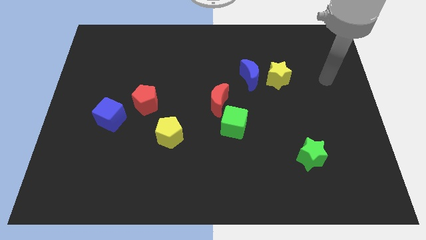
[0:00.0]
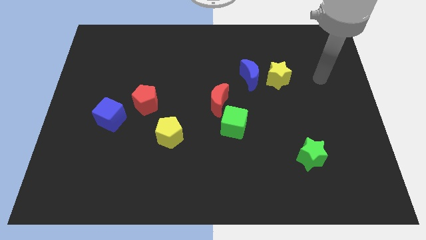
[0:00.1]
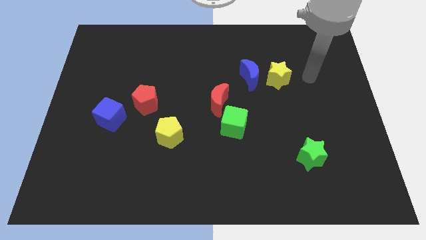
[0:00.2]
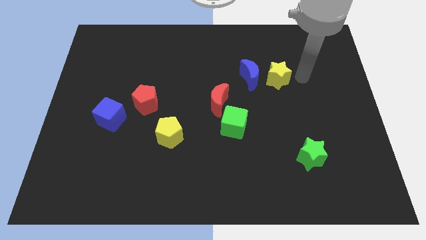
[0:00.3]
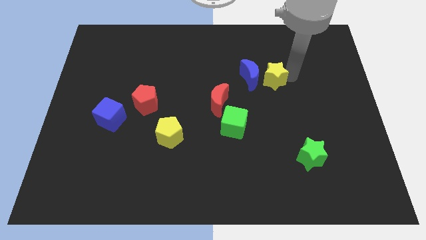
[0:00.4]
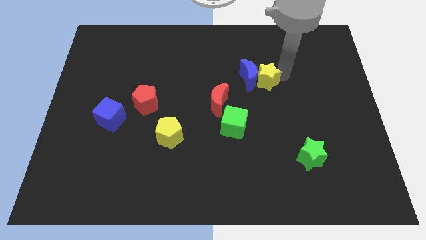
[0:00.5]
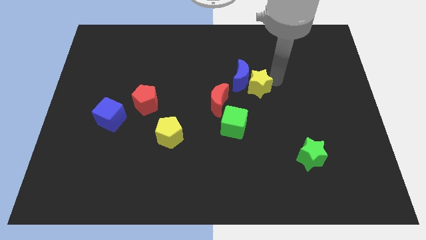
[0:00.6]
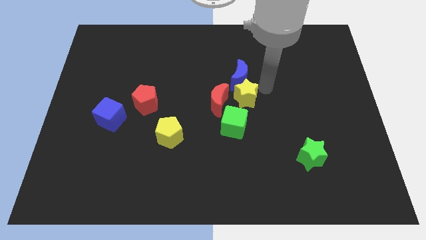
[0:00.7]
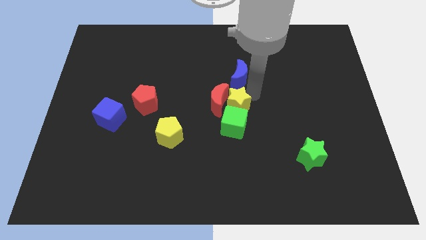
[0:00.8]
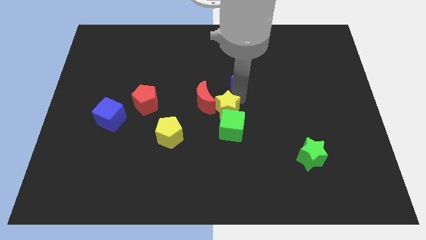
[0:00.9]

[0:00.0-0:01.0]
pull the blue moon apart from the yellow star

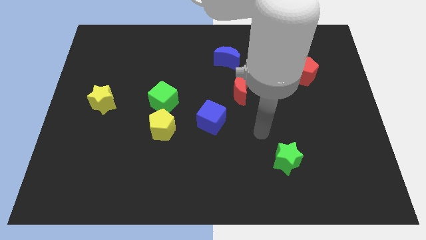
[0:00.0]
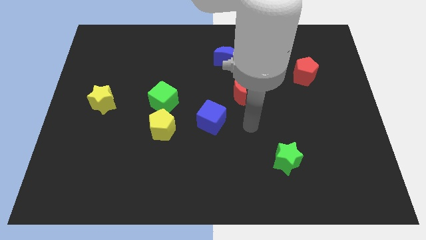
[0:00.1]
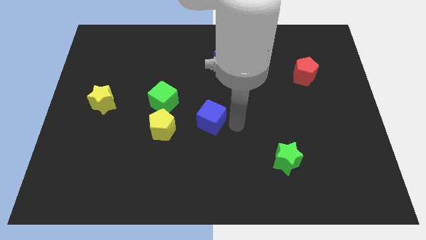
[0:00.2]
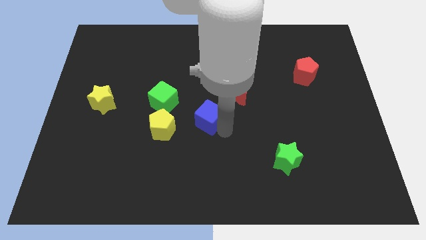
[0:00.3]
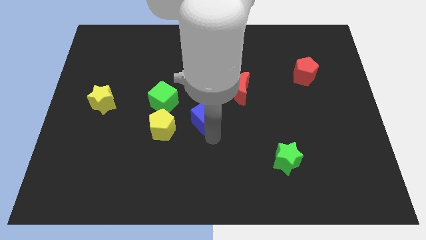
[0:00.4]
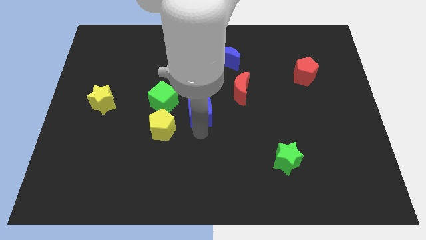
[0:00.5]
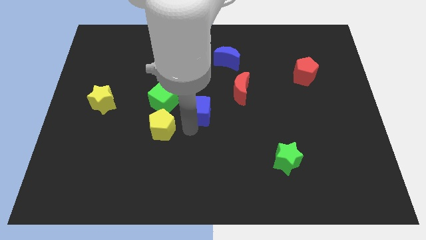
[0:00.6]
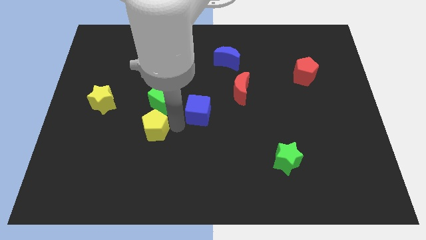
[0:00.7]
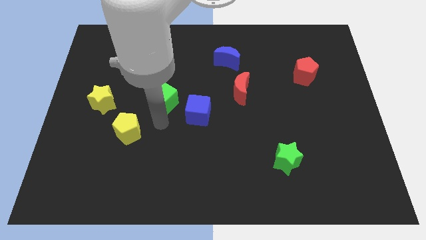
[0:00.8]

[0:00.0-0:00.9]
separate the green cube from the yellow pentagon

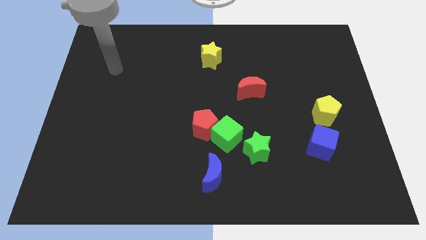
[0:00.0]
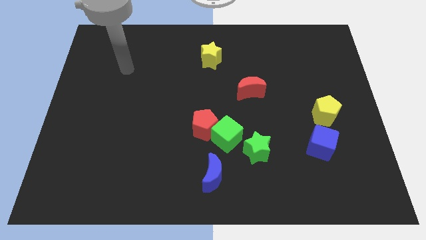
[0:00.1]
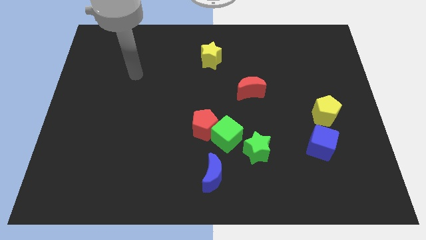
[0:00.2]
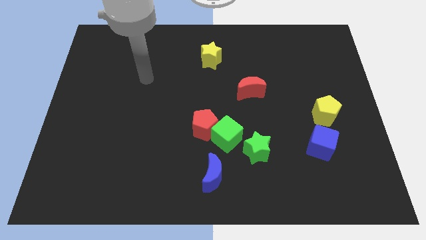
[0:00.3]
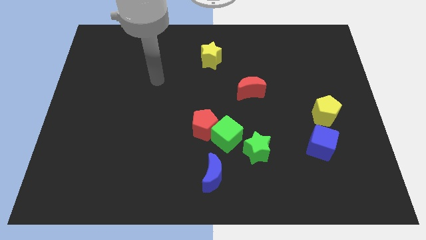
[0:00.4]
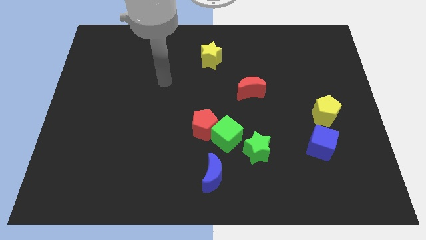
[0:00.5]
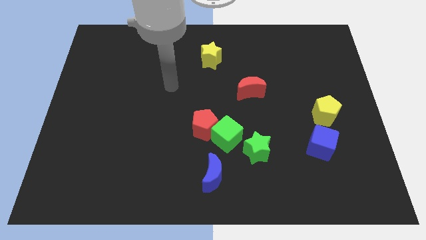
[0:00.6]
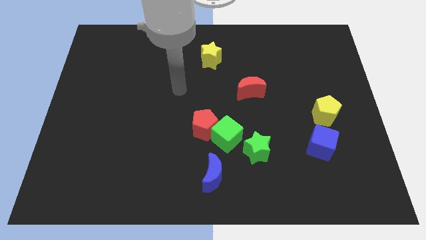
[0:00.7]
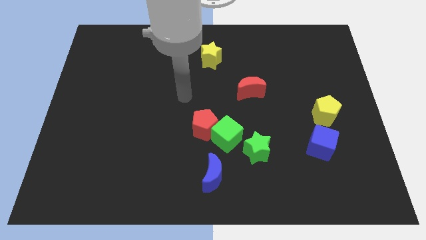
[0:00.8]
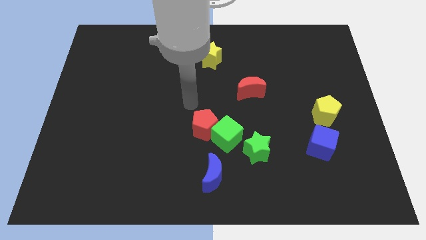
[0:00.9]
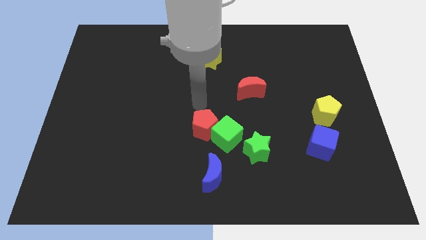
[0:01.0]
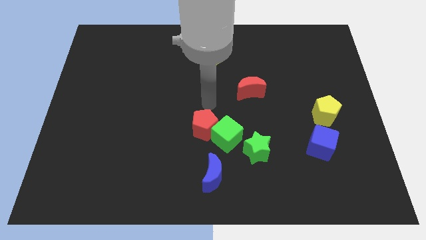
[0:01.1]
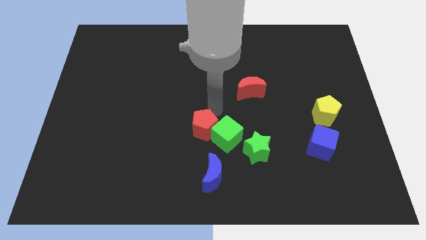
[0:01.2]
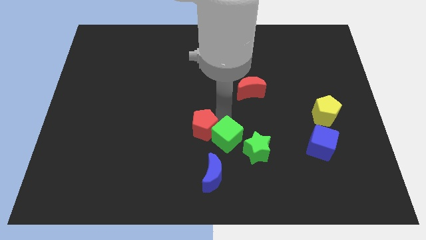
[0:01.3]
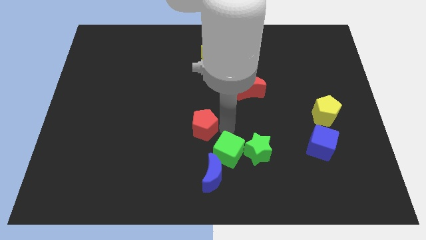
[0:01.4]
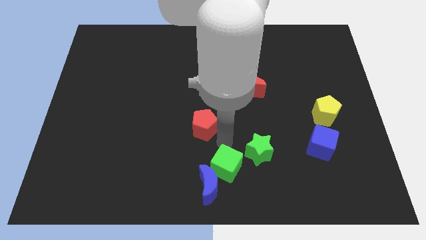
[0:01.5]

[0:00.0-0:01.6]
pull the red pentagon apart from the green cube

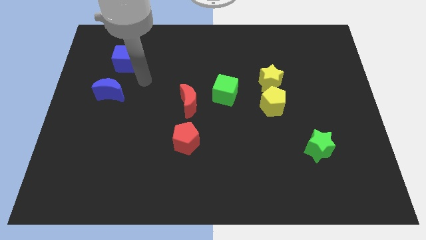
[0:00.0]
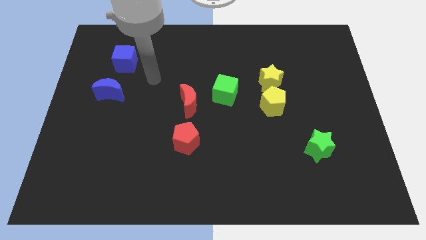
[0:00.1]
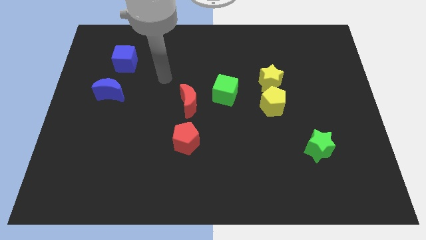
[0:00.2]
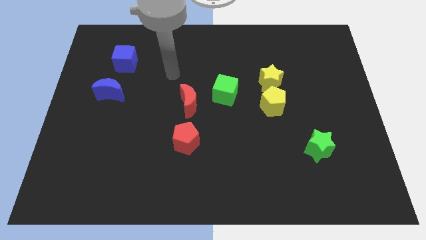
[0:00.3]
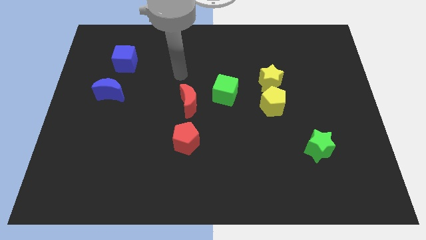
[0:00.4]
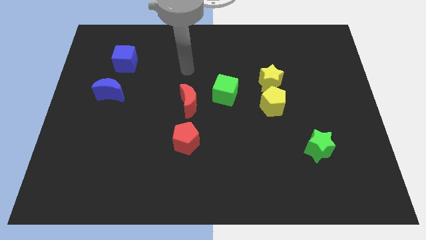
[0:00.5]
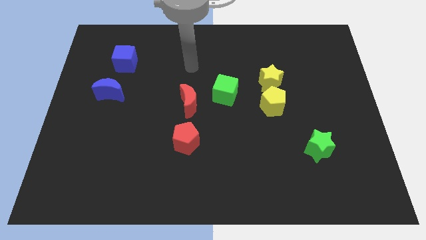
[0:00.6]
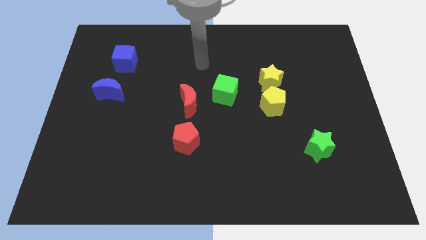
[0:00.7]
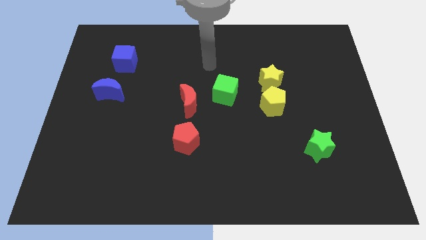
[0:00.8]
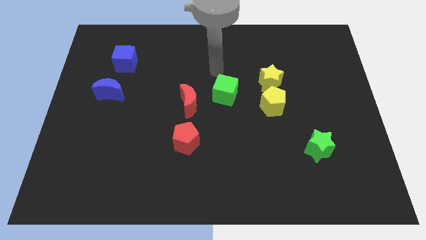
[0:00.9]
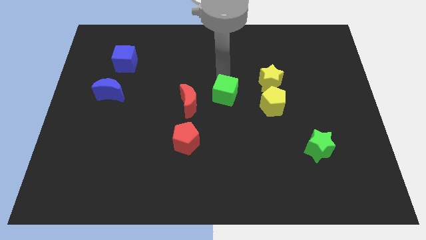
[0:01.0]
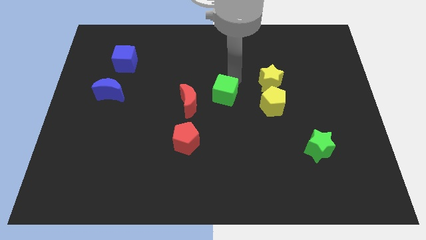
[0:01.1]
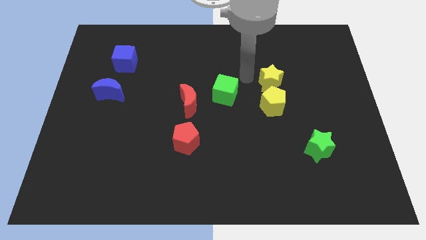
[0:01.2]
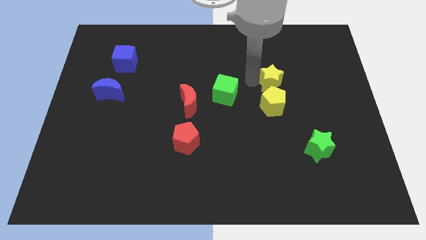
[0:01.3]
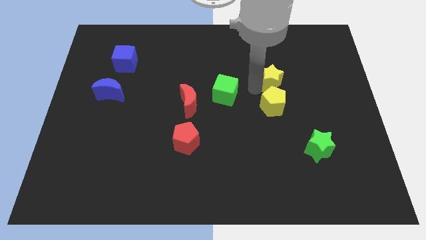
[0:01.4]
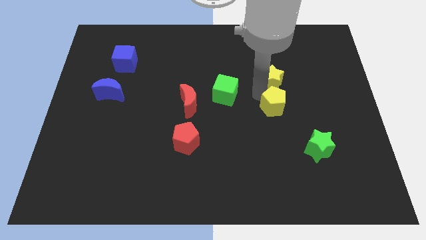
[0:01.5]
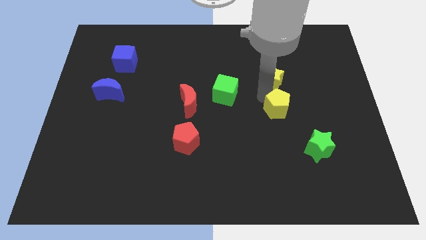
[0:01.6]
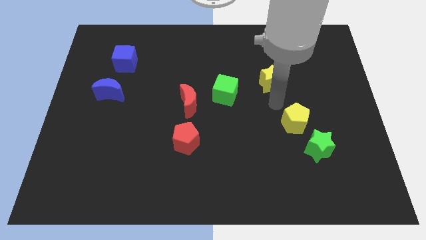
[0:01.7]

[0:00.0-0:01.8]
move the yellow star away from the yellow pentagon

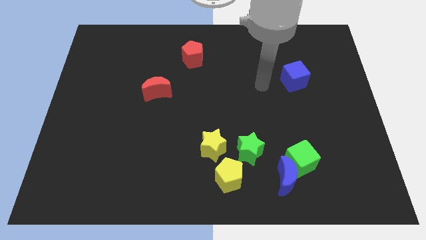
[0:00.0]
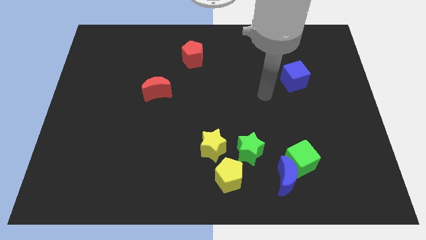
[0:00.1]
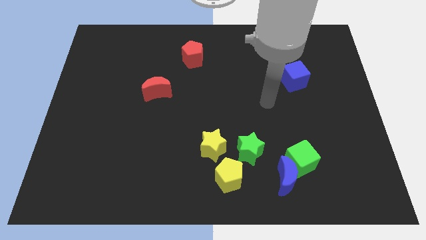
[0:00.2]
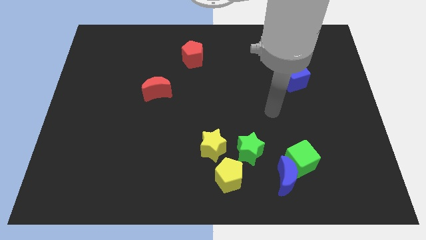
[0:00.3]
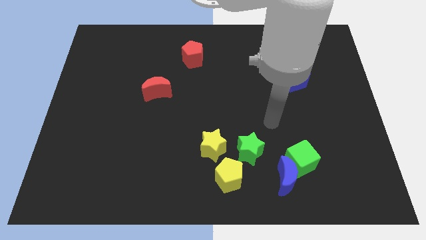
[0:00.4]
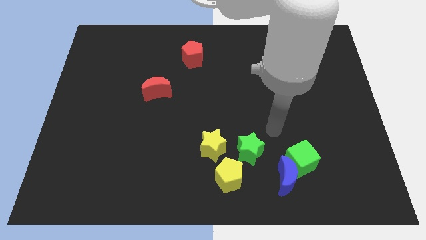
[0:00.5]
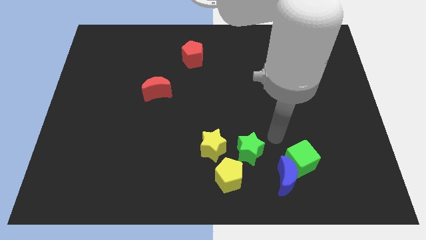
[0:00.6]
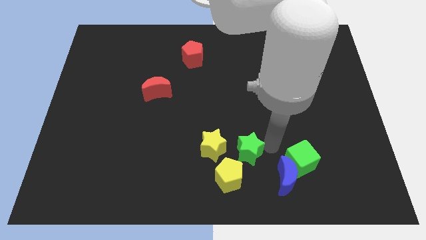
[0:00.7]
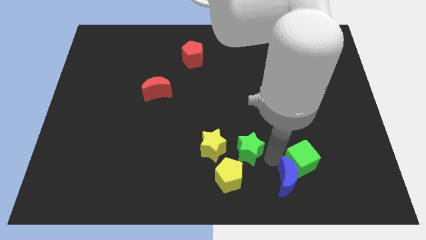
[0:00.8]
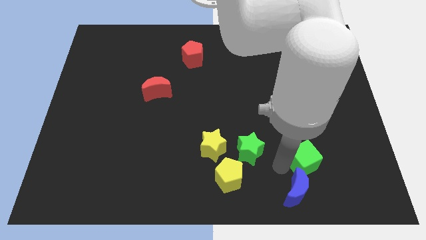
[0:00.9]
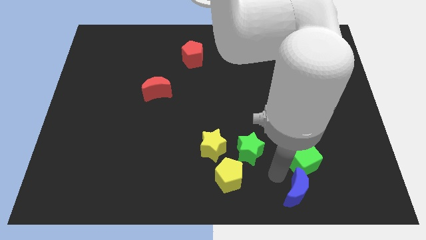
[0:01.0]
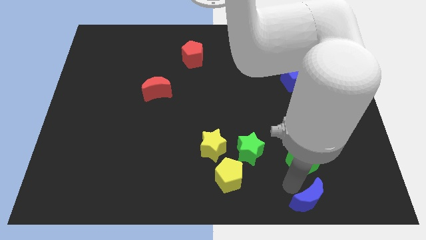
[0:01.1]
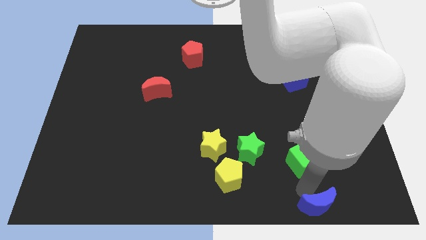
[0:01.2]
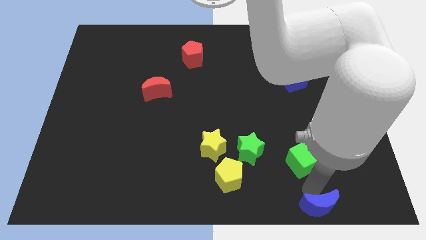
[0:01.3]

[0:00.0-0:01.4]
pull the green cube apart from the blue moon

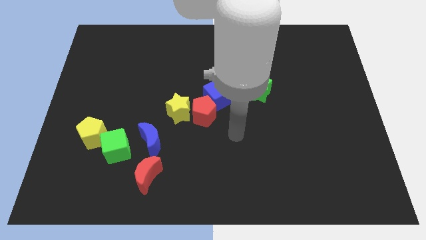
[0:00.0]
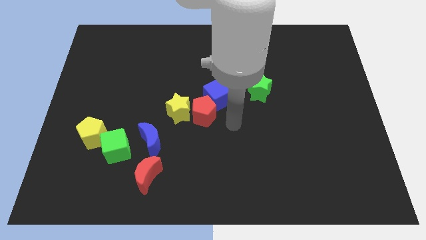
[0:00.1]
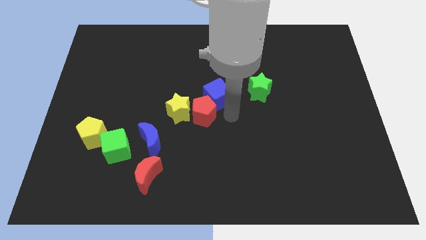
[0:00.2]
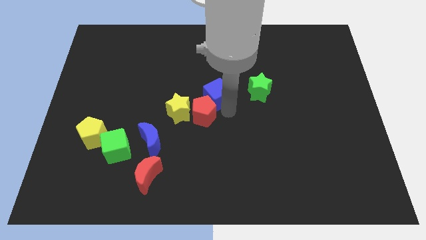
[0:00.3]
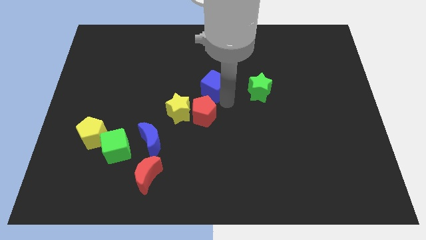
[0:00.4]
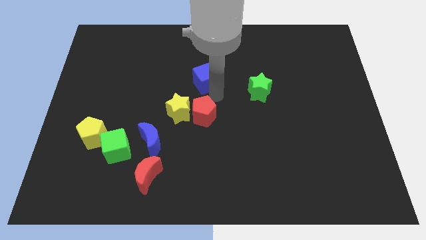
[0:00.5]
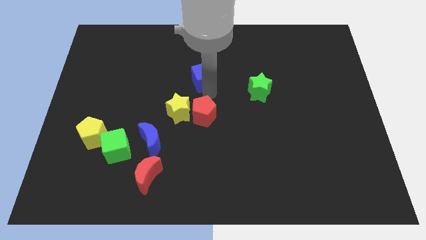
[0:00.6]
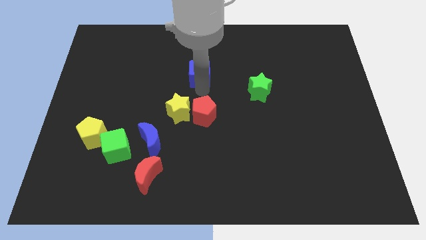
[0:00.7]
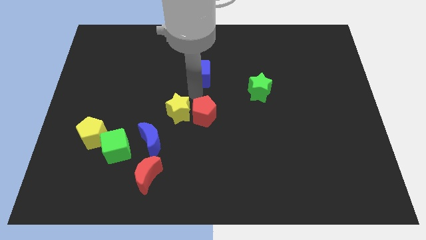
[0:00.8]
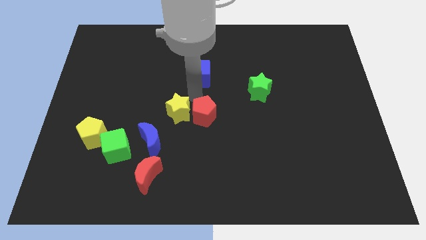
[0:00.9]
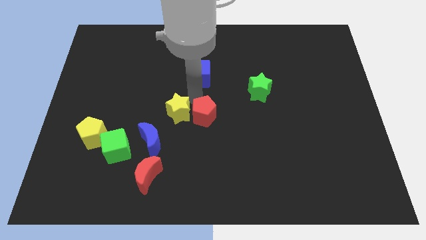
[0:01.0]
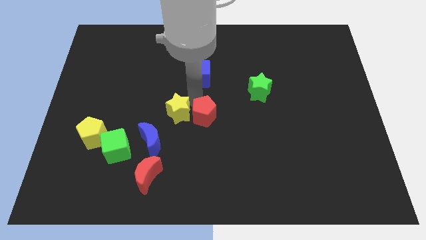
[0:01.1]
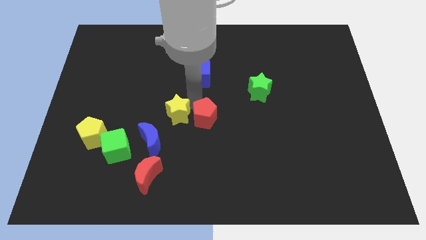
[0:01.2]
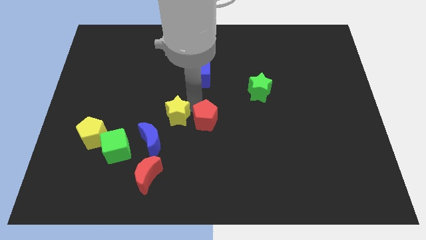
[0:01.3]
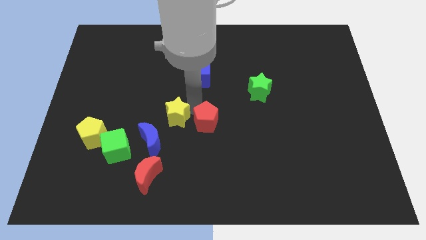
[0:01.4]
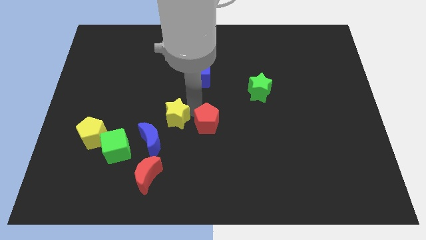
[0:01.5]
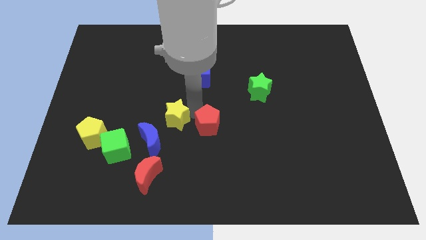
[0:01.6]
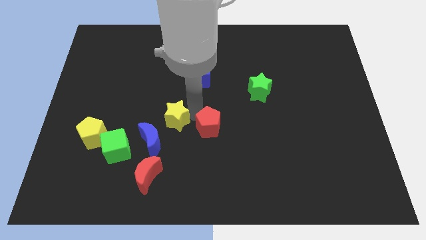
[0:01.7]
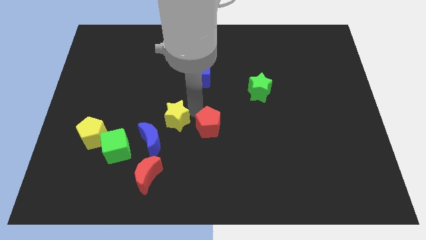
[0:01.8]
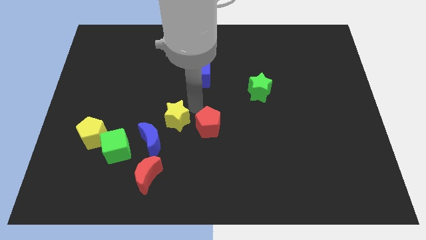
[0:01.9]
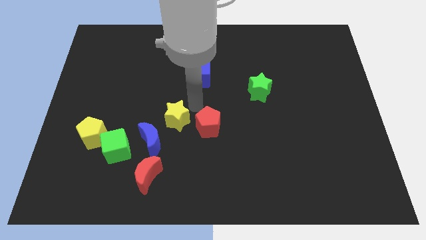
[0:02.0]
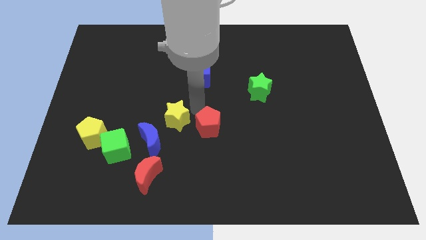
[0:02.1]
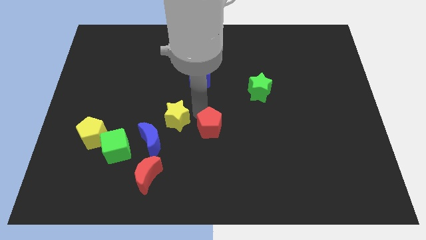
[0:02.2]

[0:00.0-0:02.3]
move the red pentagon away from the yellow star and blue cube

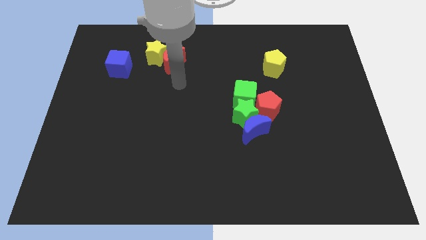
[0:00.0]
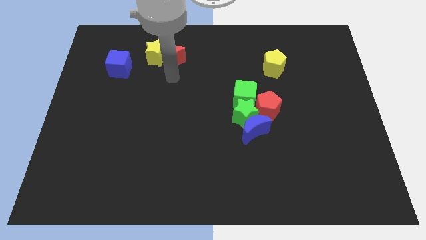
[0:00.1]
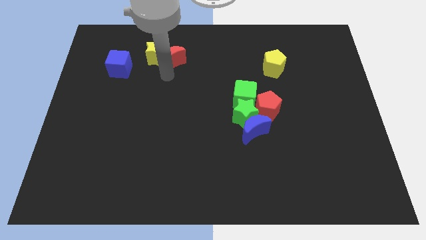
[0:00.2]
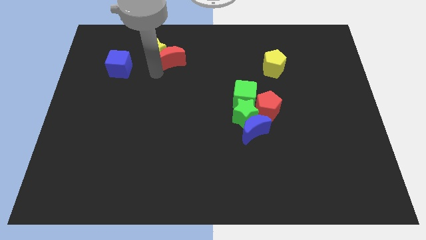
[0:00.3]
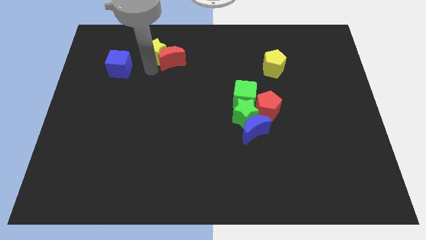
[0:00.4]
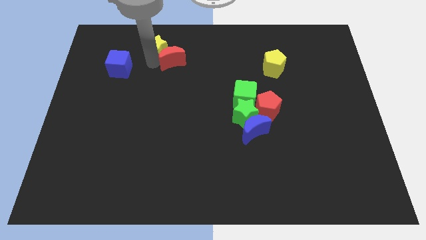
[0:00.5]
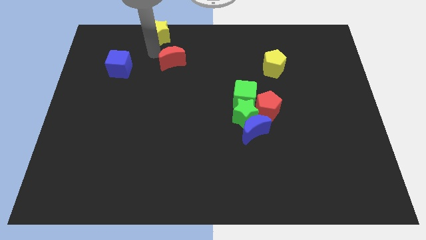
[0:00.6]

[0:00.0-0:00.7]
separate the red moon from the yellow star
